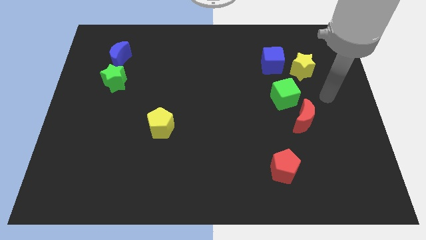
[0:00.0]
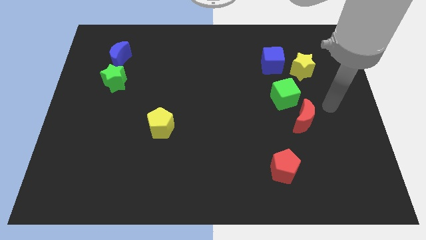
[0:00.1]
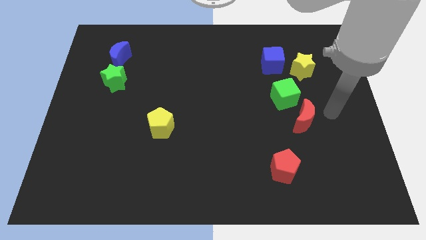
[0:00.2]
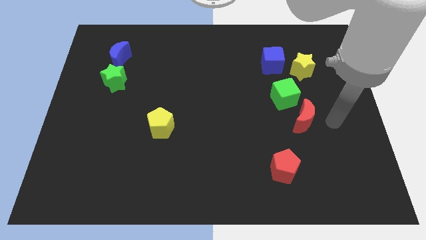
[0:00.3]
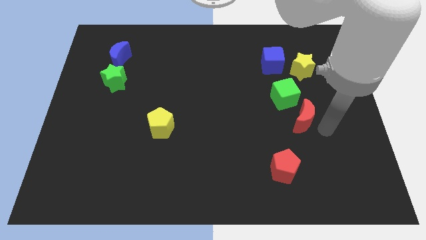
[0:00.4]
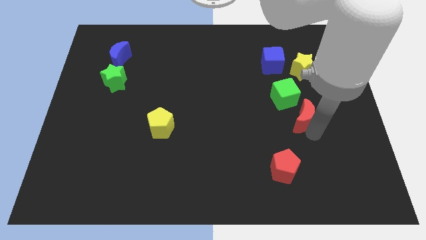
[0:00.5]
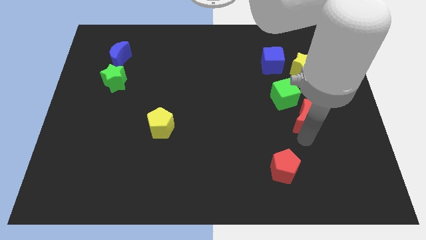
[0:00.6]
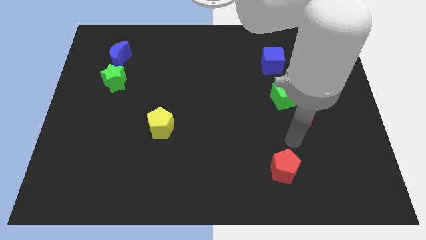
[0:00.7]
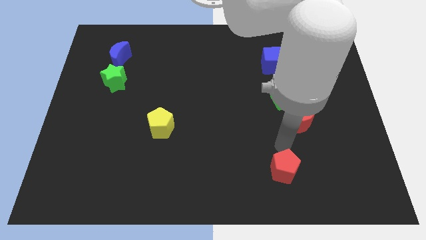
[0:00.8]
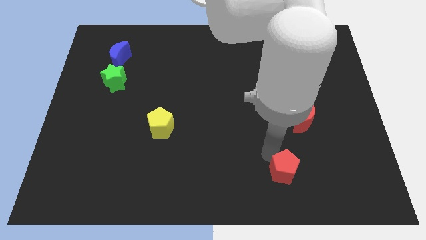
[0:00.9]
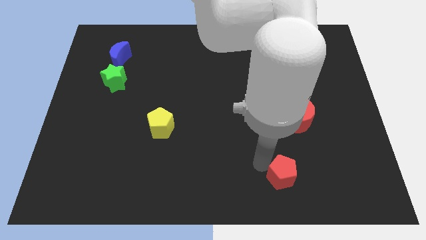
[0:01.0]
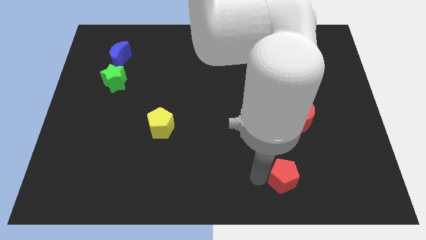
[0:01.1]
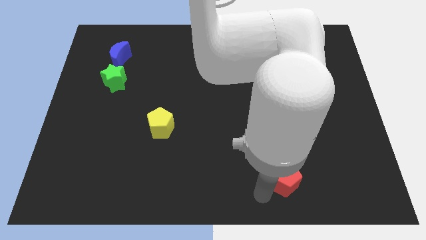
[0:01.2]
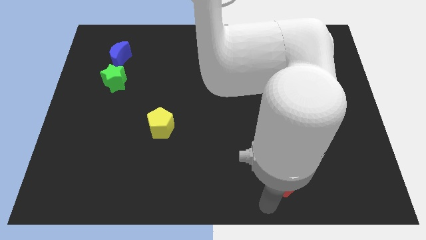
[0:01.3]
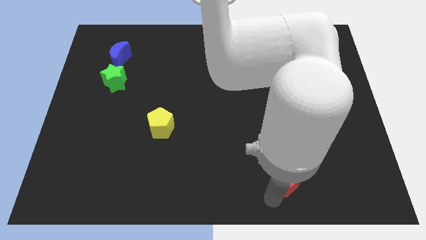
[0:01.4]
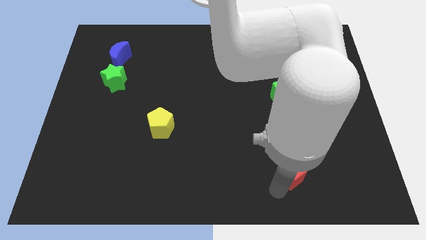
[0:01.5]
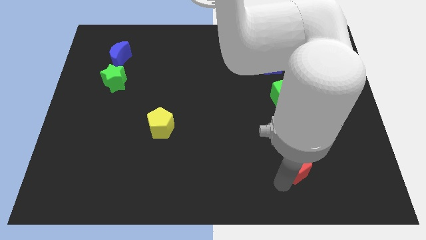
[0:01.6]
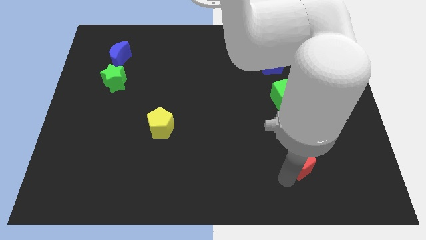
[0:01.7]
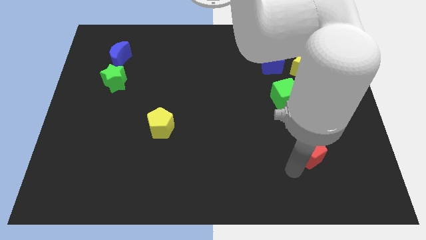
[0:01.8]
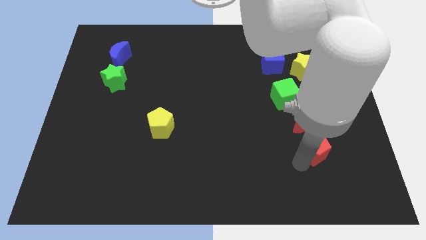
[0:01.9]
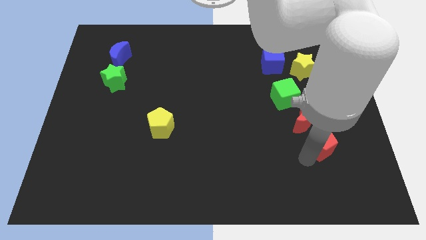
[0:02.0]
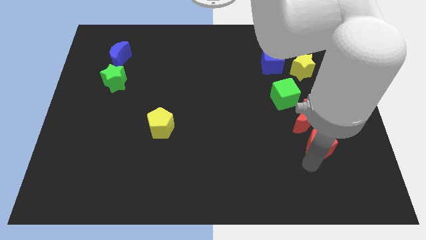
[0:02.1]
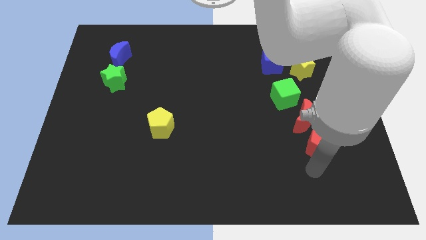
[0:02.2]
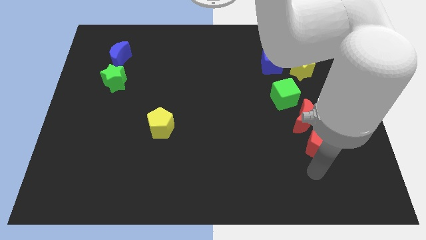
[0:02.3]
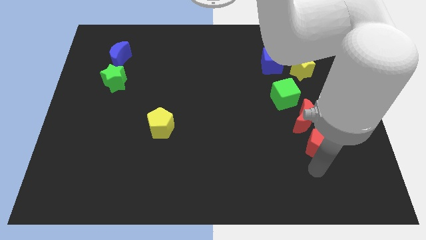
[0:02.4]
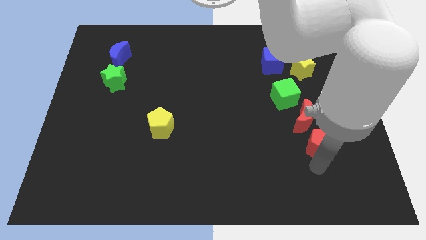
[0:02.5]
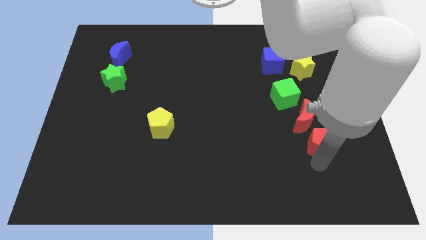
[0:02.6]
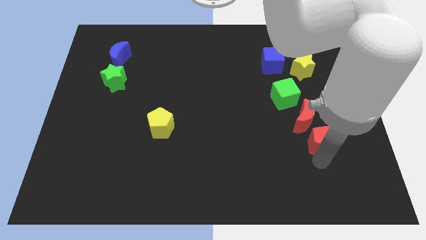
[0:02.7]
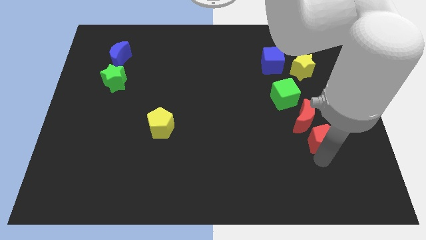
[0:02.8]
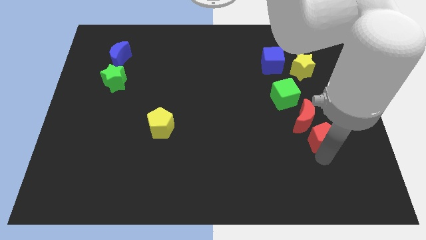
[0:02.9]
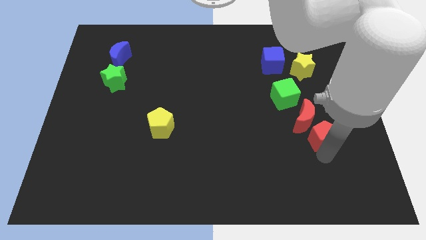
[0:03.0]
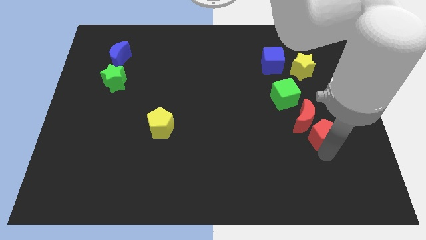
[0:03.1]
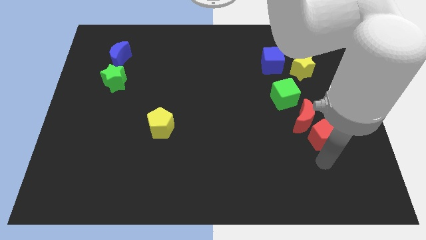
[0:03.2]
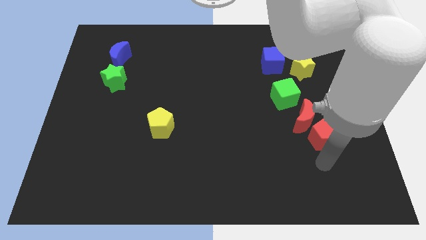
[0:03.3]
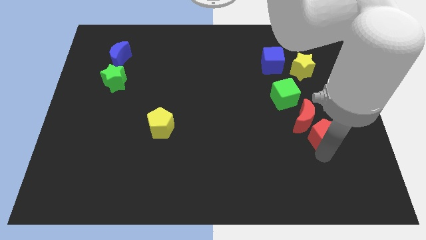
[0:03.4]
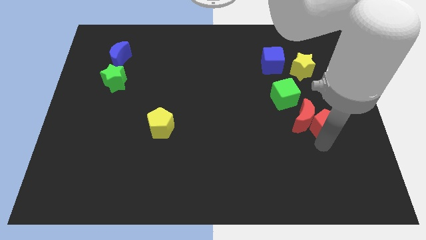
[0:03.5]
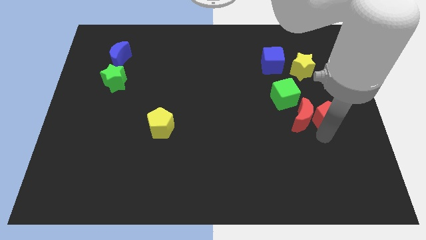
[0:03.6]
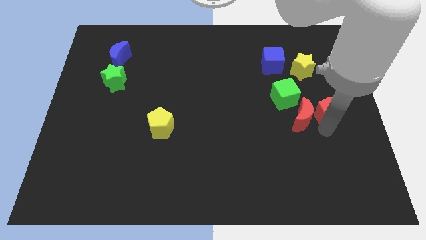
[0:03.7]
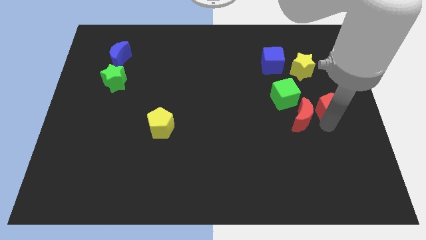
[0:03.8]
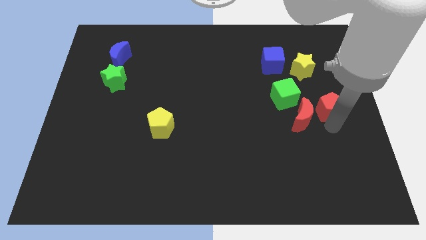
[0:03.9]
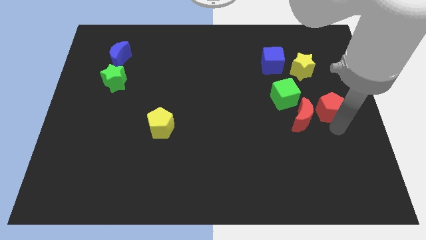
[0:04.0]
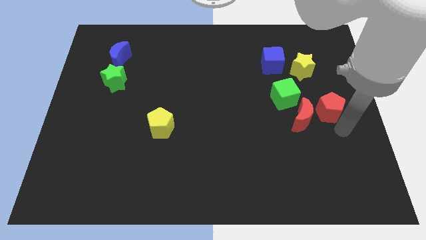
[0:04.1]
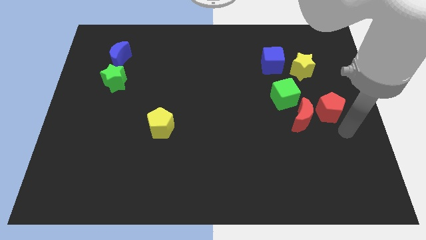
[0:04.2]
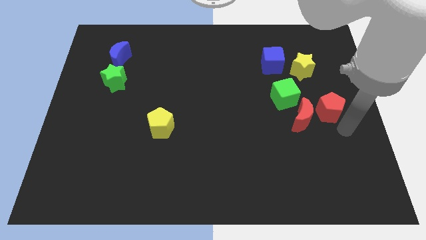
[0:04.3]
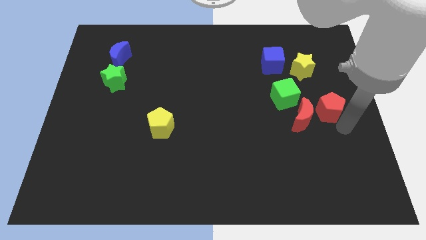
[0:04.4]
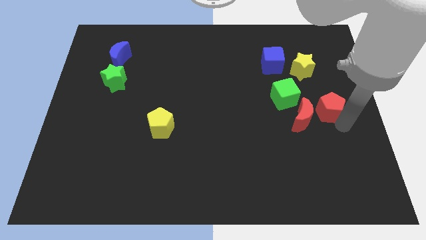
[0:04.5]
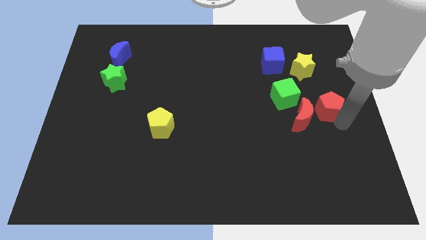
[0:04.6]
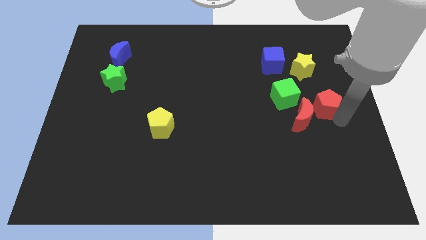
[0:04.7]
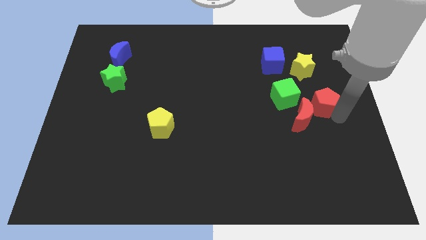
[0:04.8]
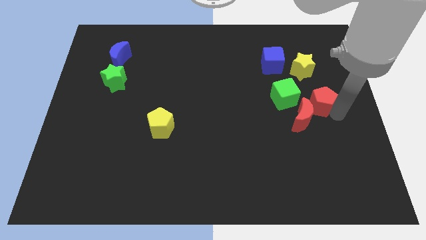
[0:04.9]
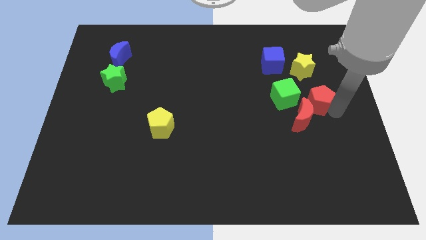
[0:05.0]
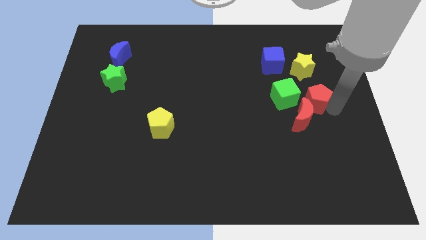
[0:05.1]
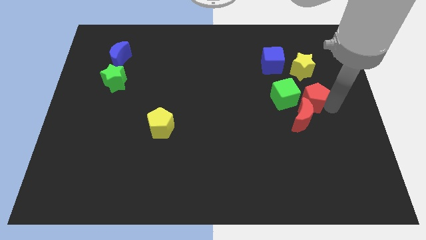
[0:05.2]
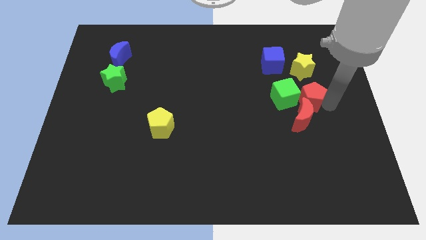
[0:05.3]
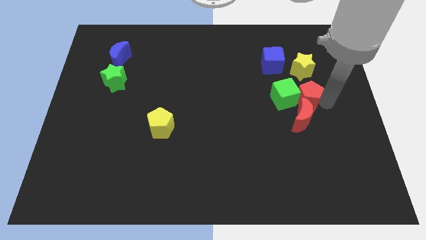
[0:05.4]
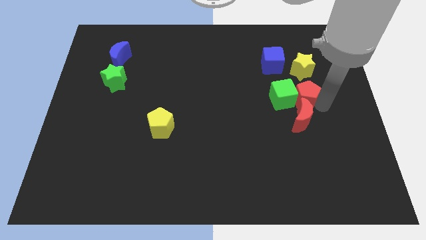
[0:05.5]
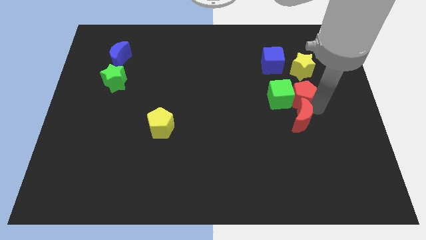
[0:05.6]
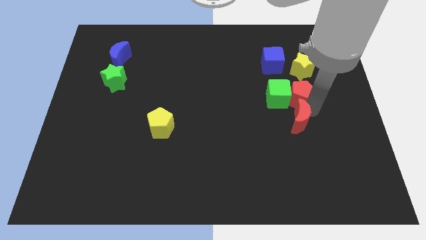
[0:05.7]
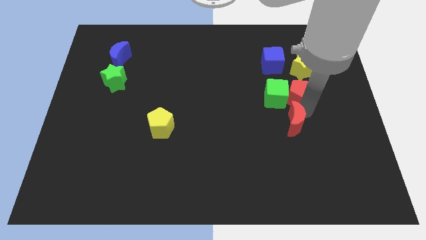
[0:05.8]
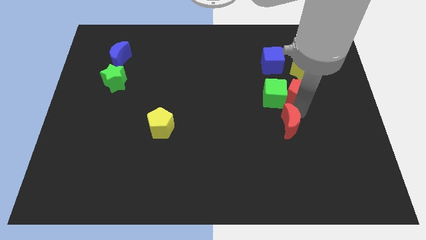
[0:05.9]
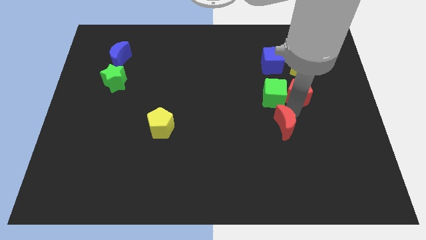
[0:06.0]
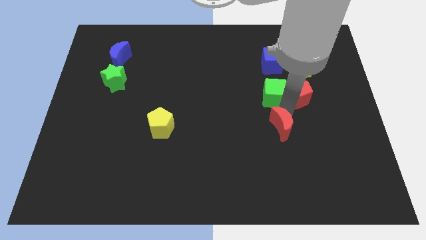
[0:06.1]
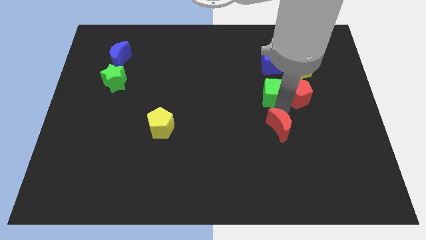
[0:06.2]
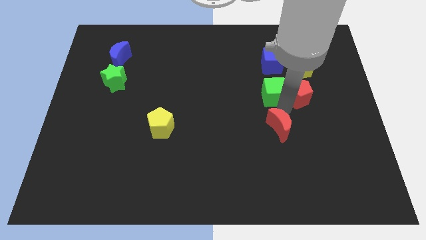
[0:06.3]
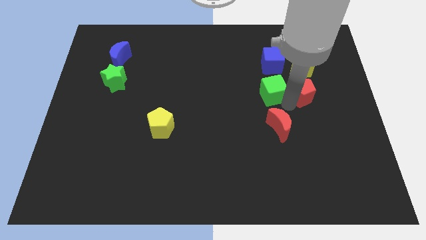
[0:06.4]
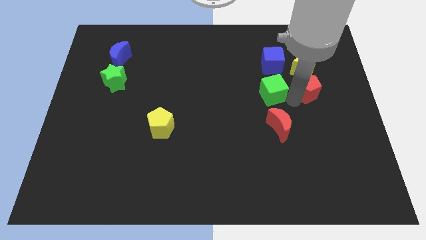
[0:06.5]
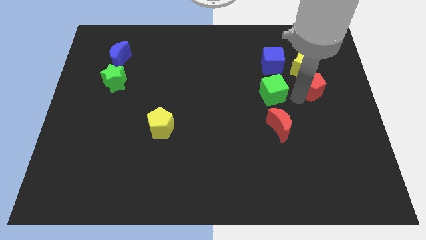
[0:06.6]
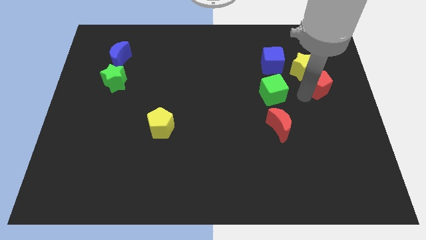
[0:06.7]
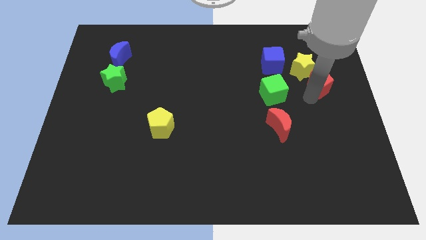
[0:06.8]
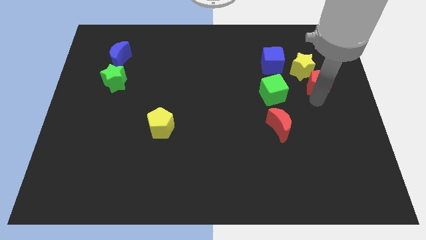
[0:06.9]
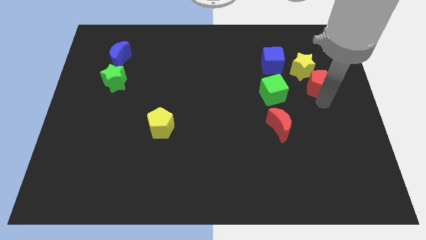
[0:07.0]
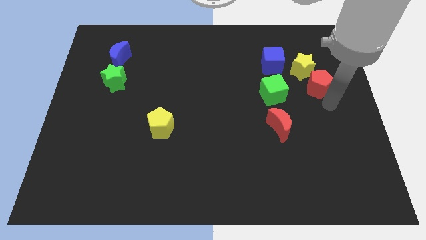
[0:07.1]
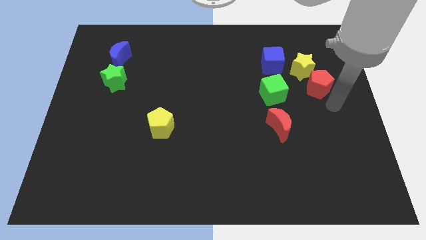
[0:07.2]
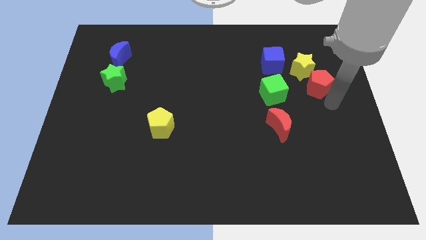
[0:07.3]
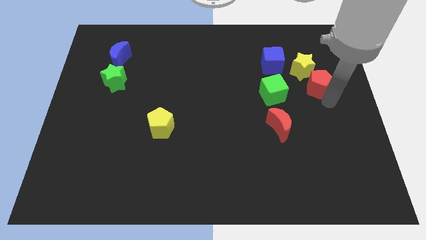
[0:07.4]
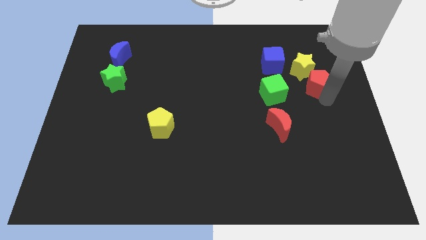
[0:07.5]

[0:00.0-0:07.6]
move the red pentagon to the yellow star
